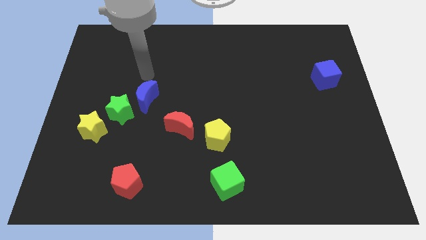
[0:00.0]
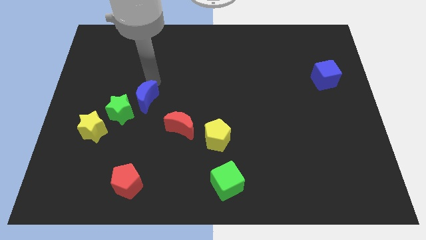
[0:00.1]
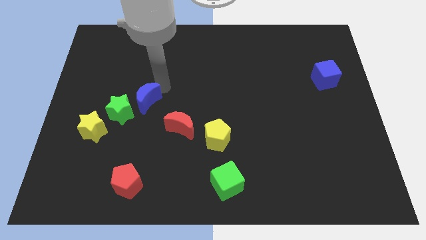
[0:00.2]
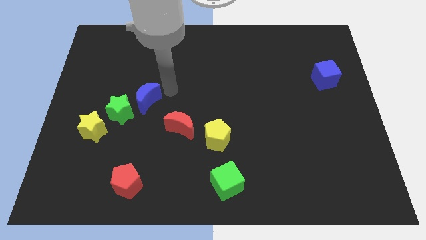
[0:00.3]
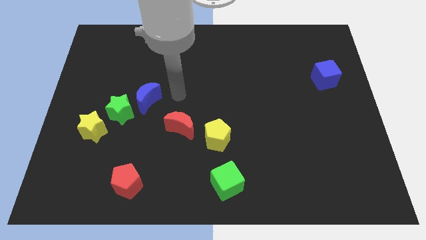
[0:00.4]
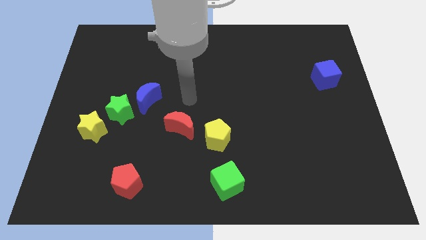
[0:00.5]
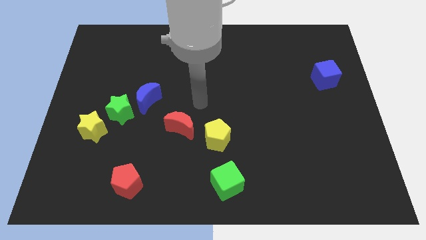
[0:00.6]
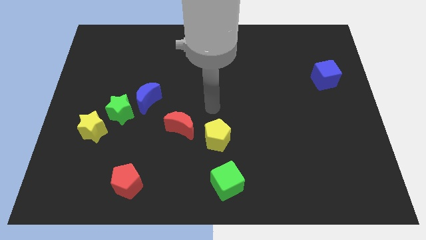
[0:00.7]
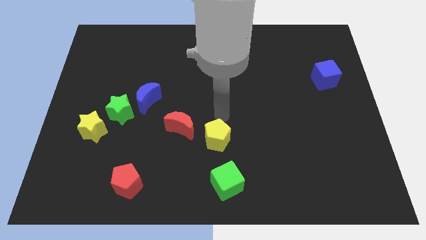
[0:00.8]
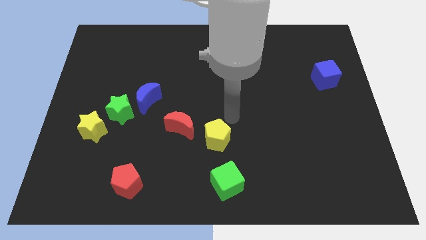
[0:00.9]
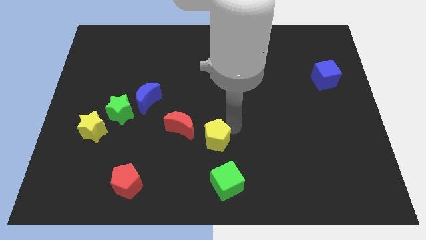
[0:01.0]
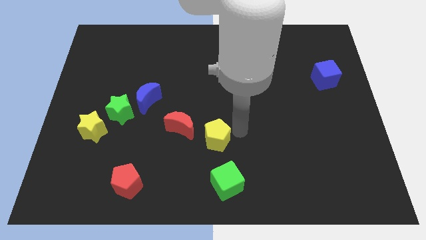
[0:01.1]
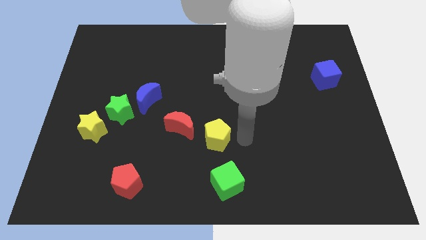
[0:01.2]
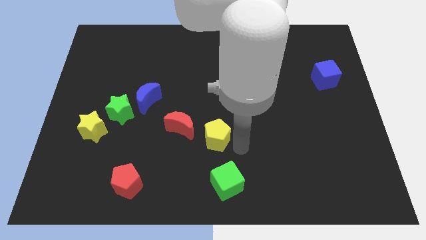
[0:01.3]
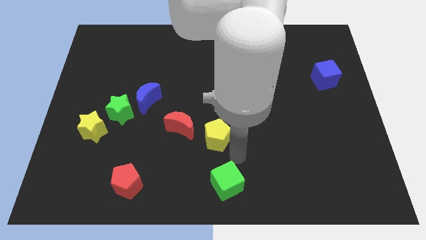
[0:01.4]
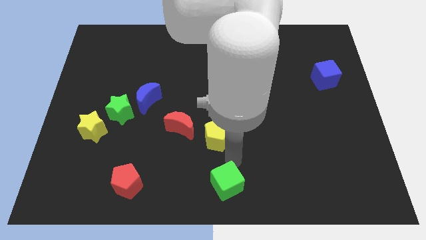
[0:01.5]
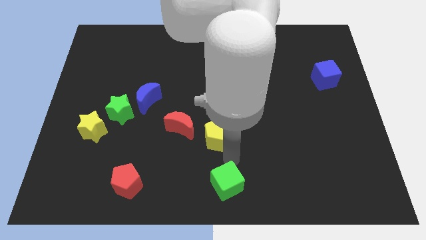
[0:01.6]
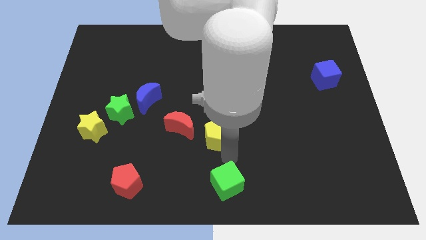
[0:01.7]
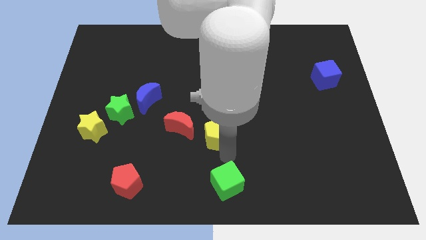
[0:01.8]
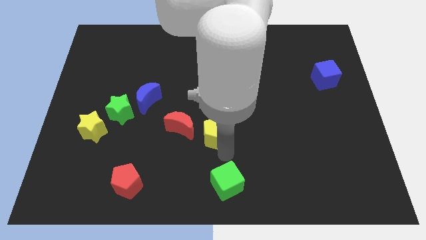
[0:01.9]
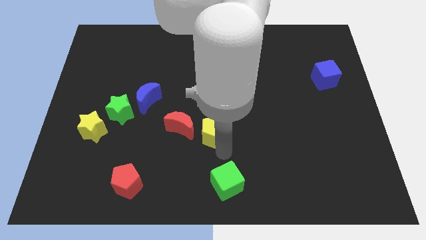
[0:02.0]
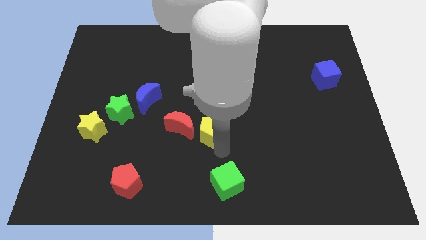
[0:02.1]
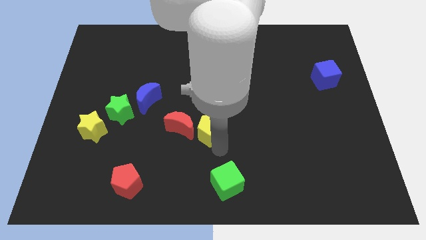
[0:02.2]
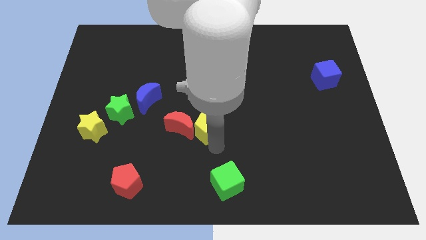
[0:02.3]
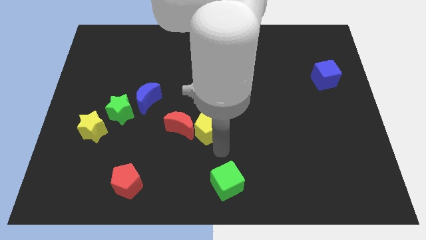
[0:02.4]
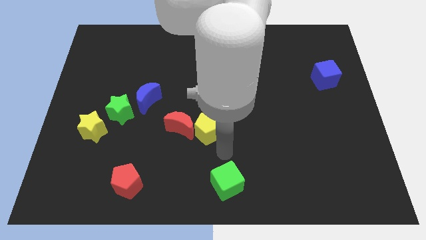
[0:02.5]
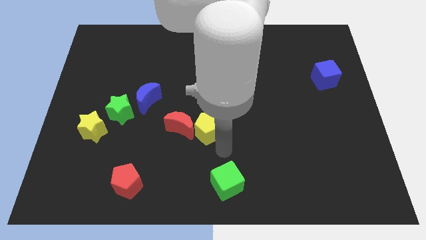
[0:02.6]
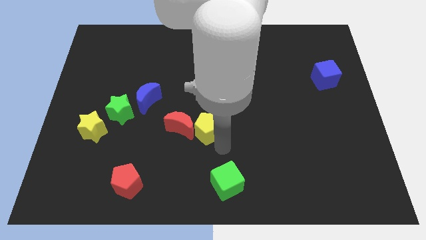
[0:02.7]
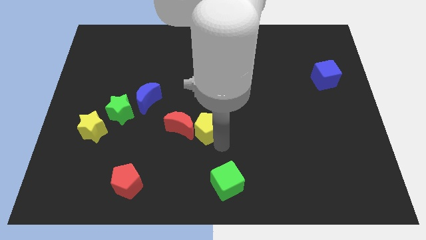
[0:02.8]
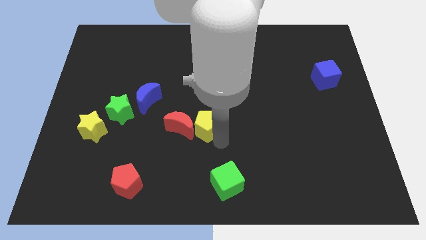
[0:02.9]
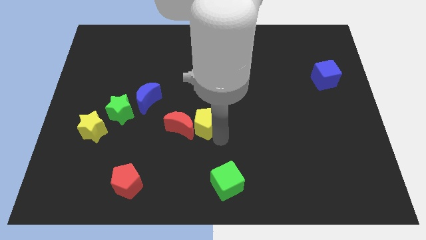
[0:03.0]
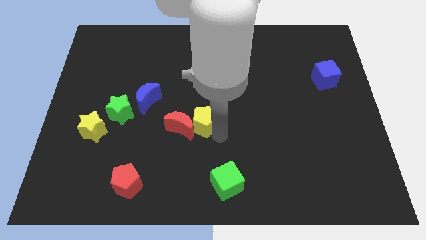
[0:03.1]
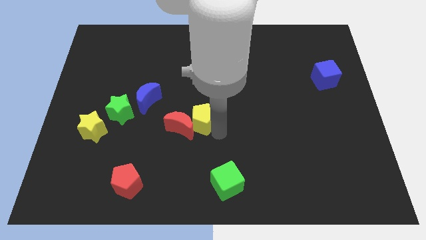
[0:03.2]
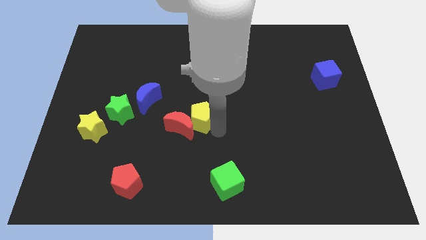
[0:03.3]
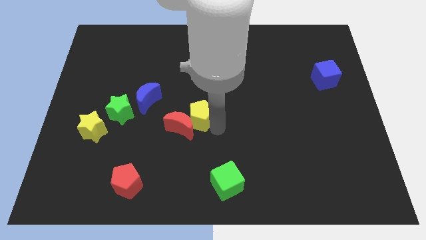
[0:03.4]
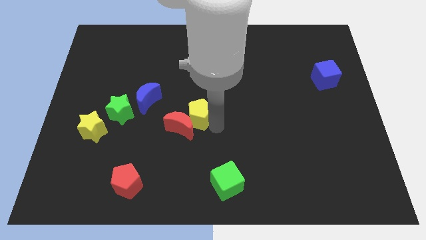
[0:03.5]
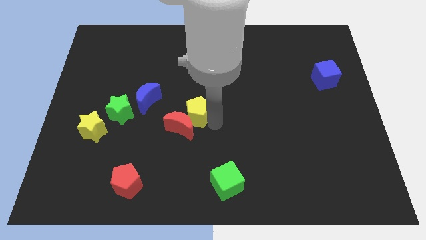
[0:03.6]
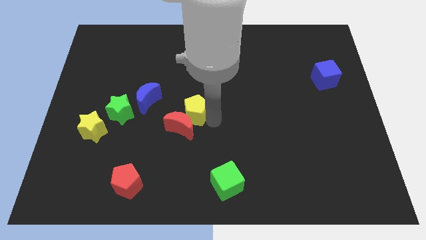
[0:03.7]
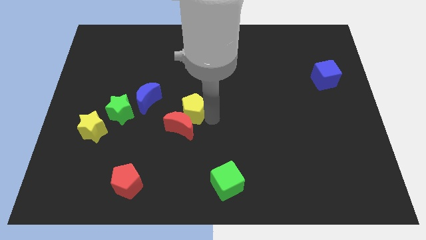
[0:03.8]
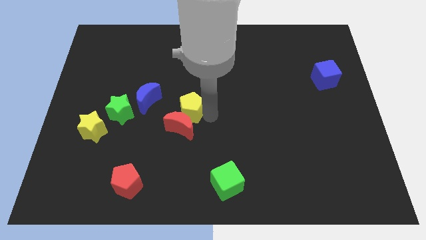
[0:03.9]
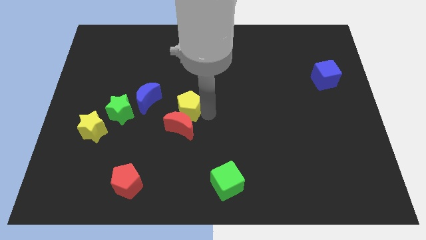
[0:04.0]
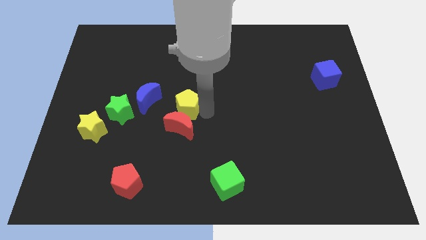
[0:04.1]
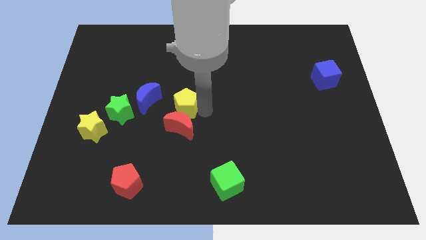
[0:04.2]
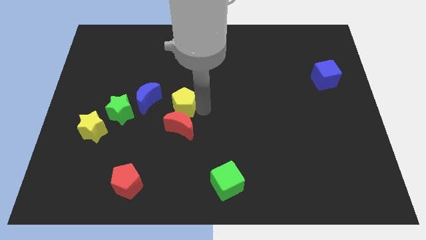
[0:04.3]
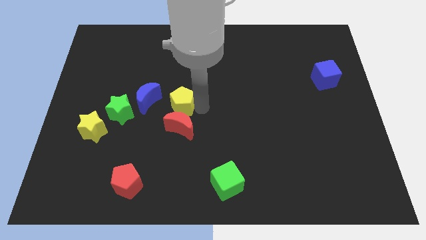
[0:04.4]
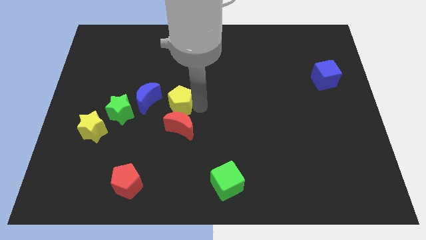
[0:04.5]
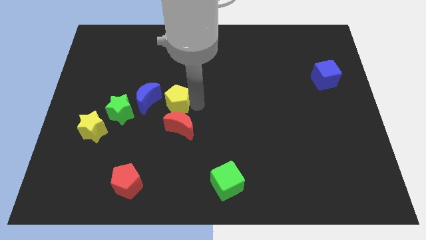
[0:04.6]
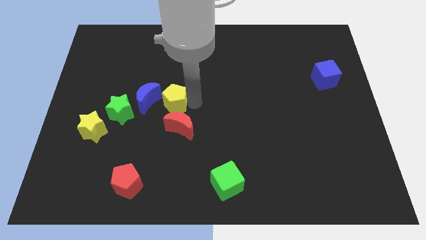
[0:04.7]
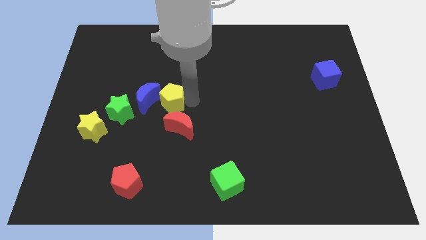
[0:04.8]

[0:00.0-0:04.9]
put the yellow pentagon next to the blue moon

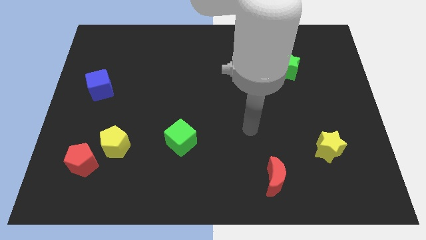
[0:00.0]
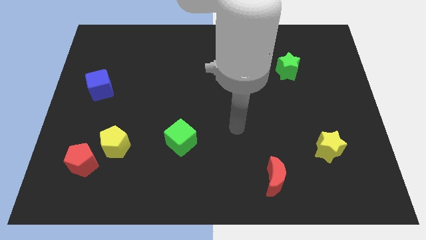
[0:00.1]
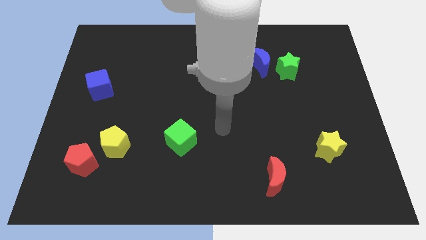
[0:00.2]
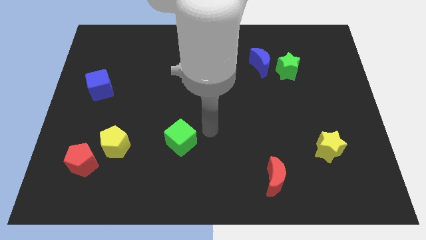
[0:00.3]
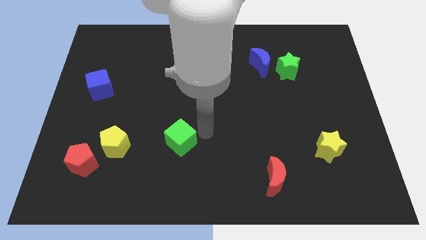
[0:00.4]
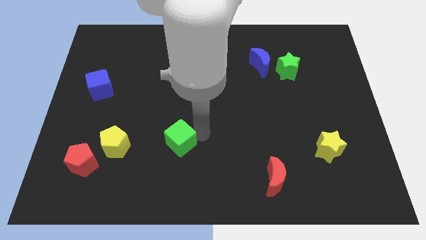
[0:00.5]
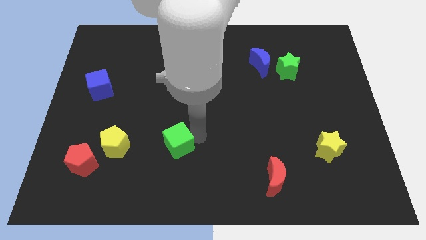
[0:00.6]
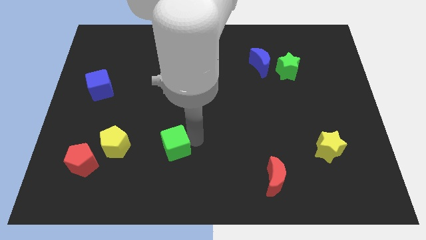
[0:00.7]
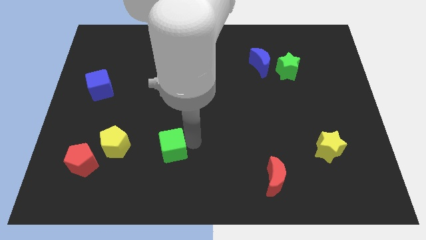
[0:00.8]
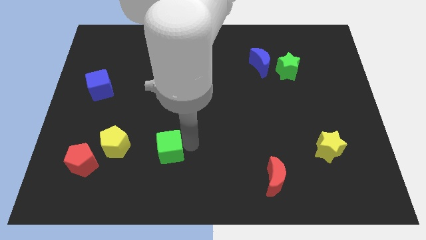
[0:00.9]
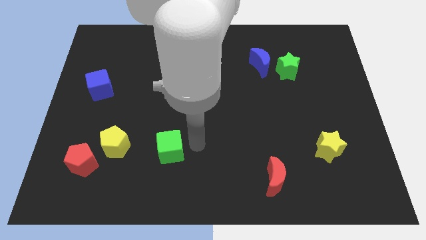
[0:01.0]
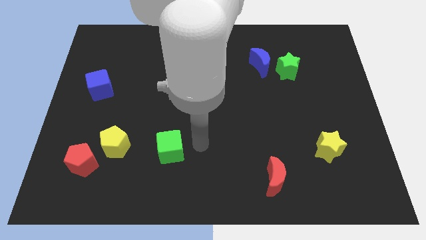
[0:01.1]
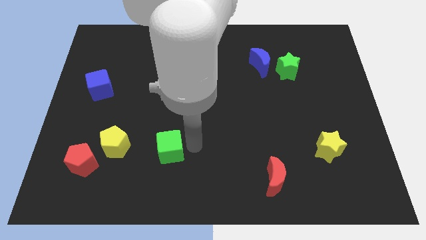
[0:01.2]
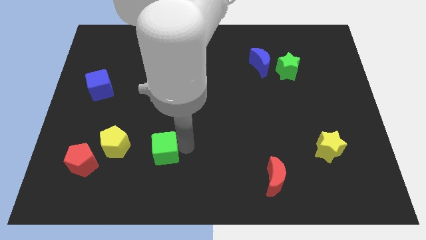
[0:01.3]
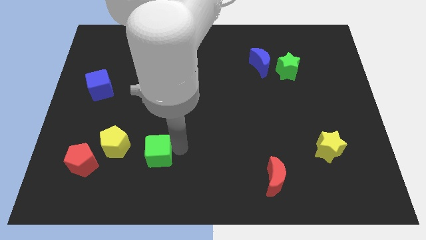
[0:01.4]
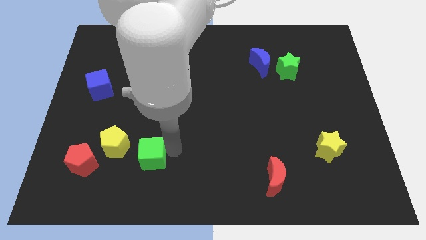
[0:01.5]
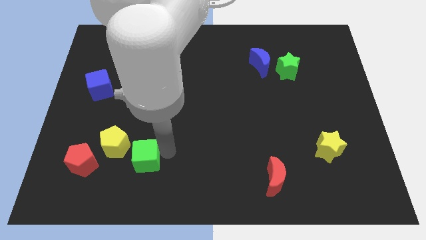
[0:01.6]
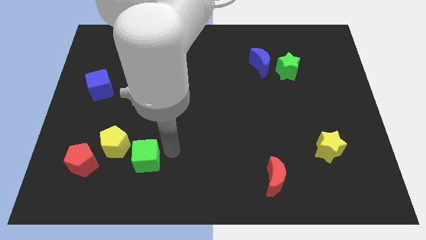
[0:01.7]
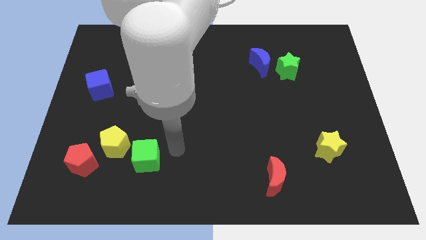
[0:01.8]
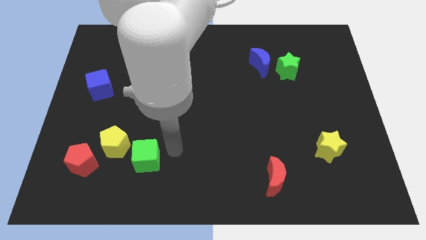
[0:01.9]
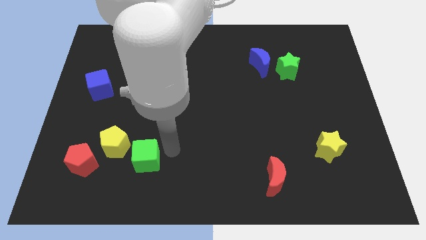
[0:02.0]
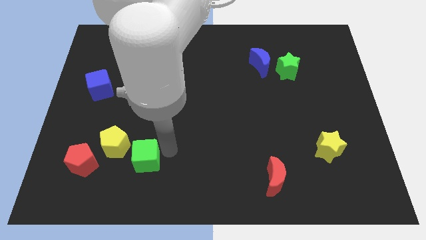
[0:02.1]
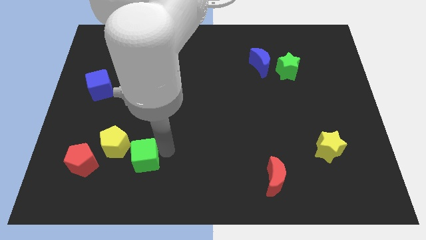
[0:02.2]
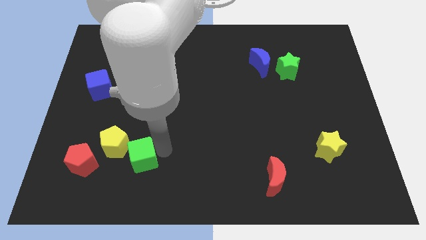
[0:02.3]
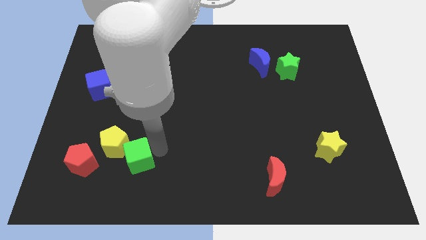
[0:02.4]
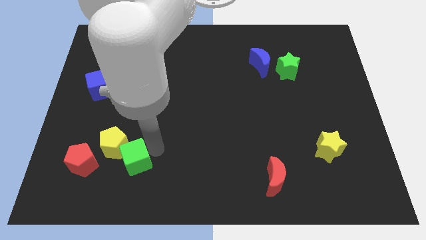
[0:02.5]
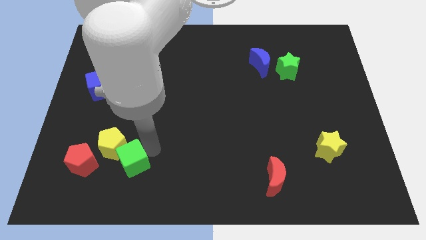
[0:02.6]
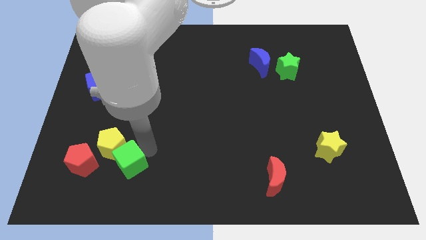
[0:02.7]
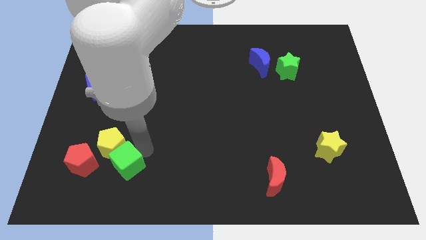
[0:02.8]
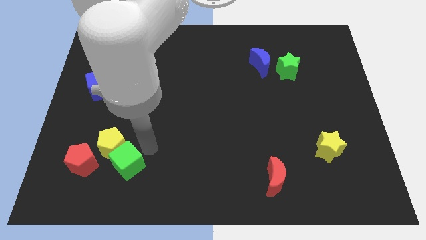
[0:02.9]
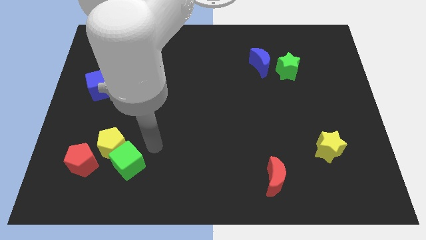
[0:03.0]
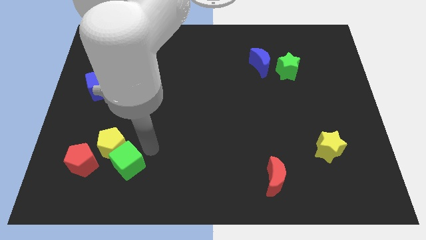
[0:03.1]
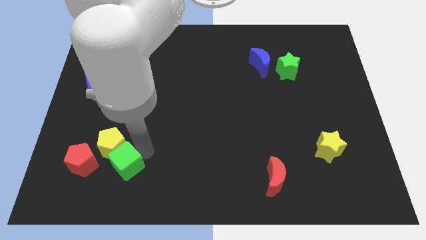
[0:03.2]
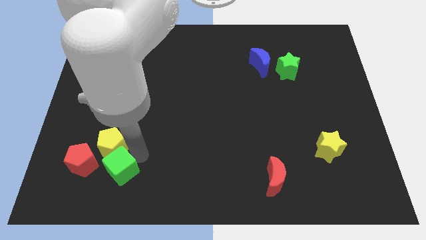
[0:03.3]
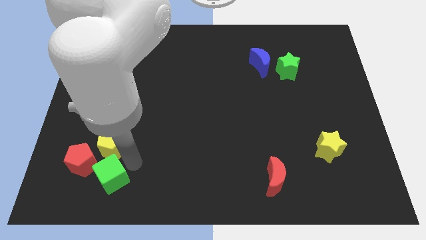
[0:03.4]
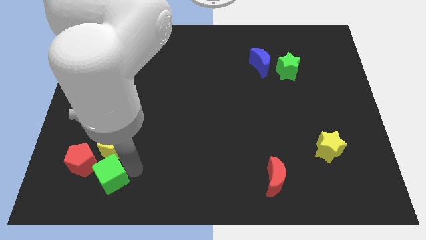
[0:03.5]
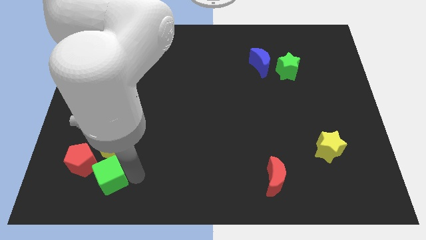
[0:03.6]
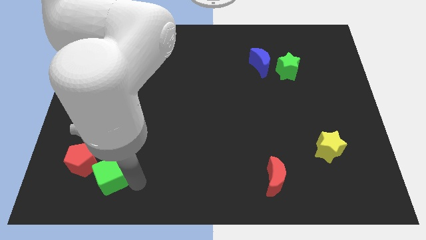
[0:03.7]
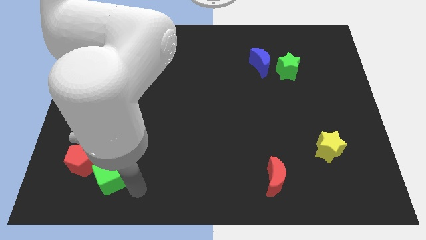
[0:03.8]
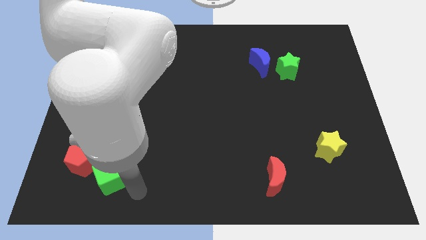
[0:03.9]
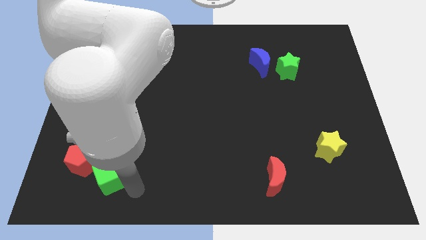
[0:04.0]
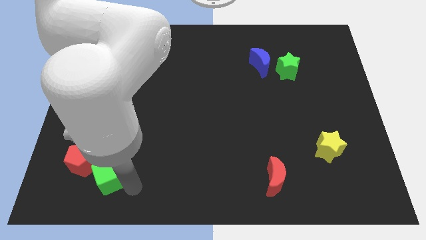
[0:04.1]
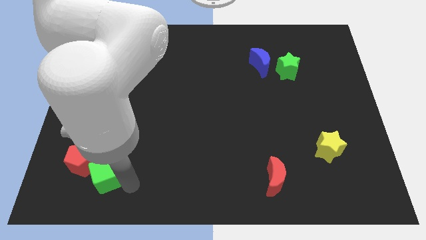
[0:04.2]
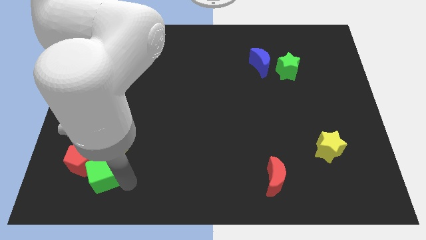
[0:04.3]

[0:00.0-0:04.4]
move the green cube towards the red pentagon
